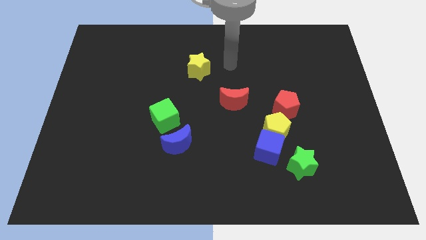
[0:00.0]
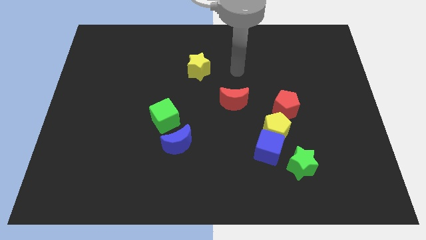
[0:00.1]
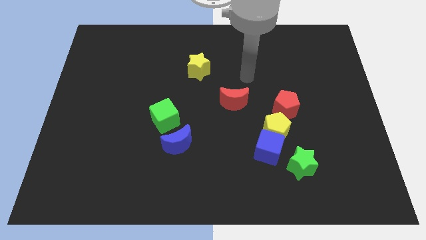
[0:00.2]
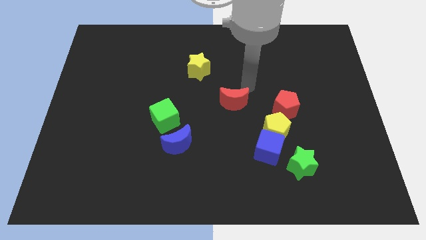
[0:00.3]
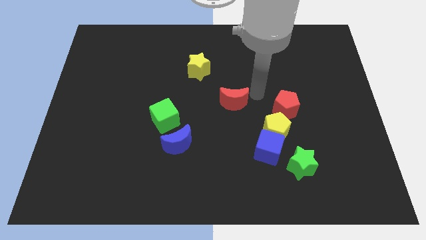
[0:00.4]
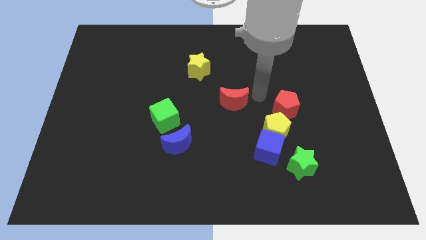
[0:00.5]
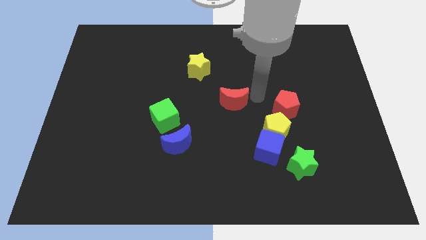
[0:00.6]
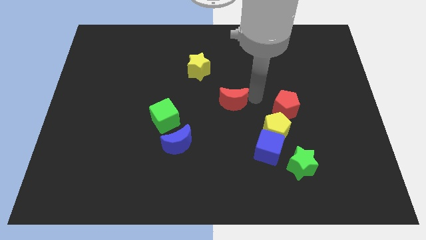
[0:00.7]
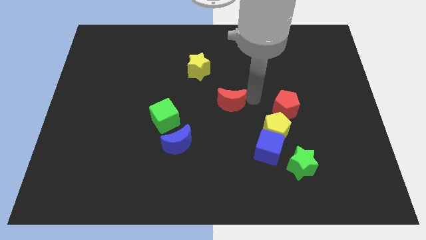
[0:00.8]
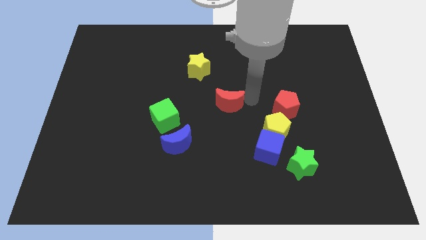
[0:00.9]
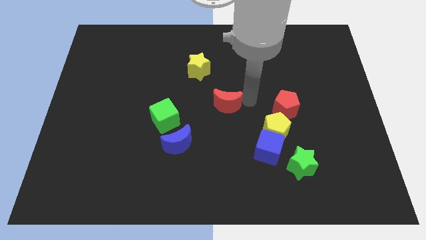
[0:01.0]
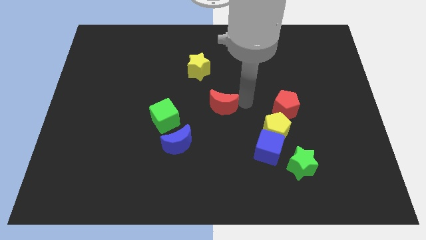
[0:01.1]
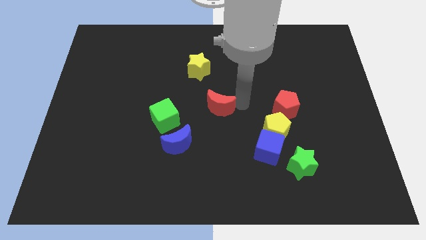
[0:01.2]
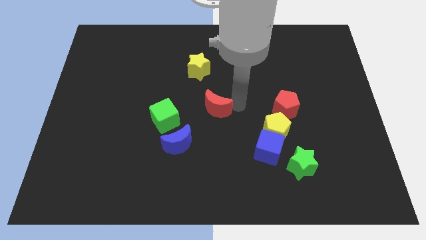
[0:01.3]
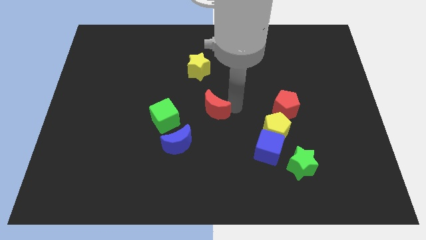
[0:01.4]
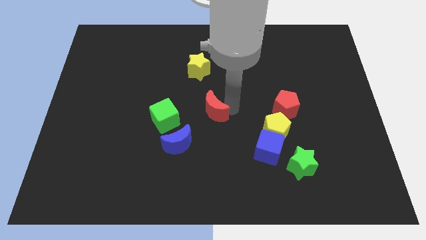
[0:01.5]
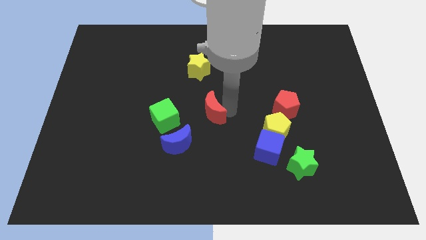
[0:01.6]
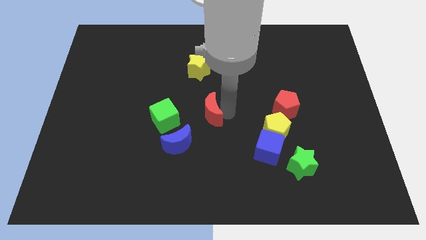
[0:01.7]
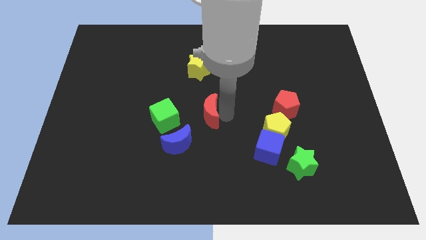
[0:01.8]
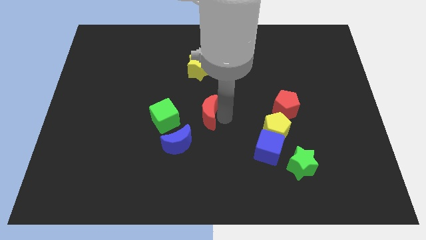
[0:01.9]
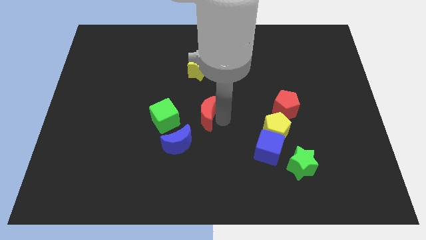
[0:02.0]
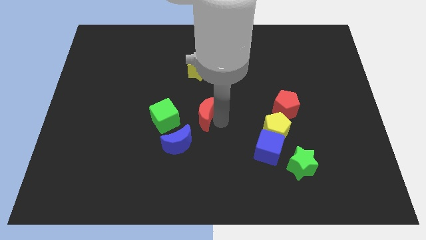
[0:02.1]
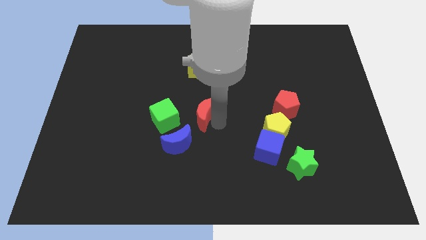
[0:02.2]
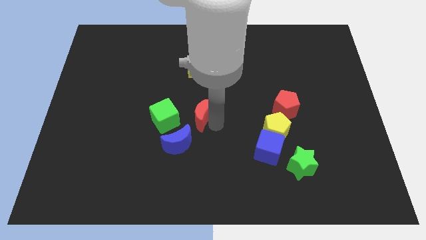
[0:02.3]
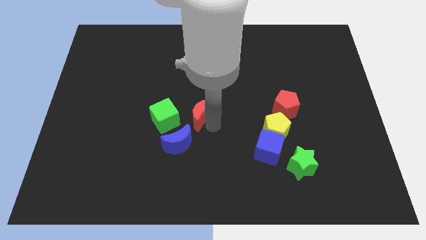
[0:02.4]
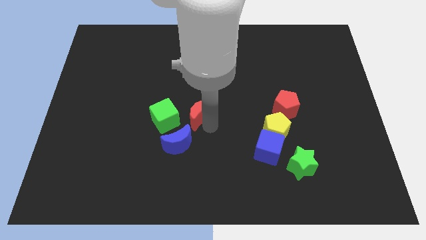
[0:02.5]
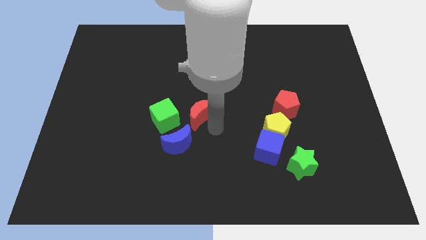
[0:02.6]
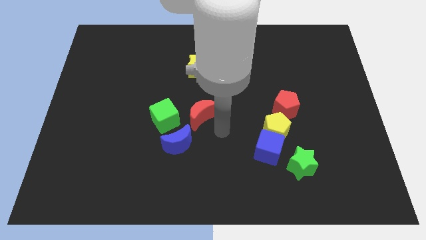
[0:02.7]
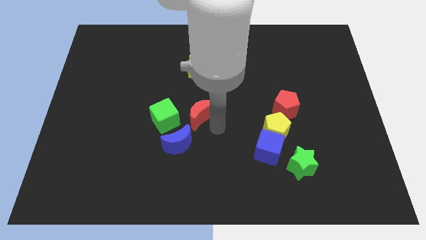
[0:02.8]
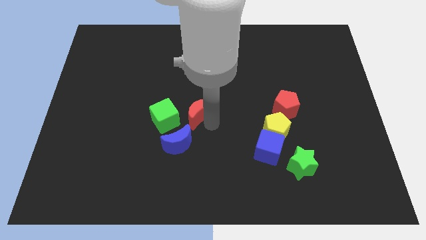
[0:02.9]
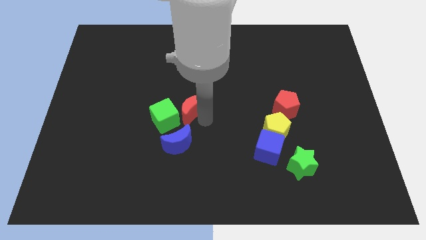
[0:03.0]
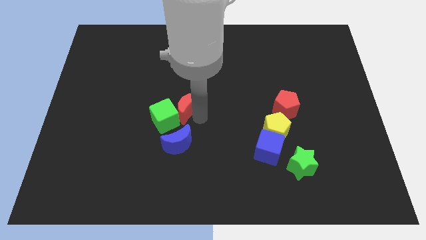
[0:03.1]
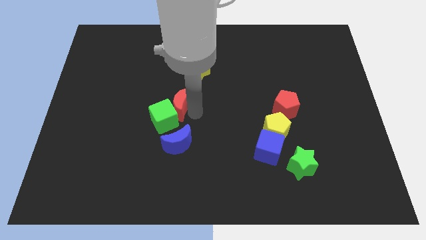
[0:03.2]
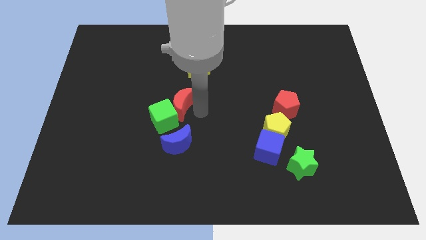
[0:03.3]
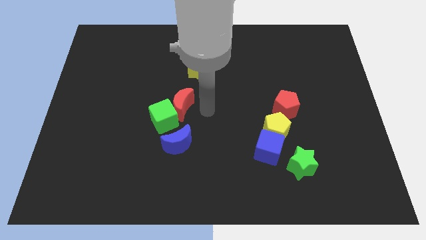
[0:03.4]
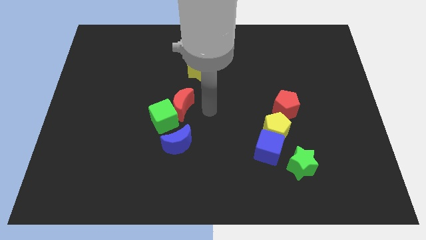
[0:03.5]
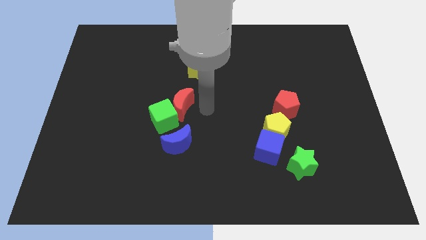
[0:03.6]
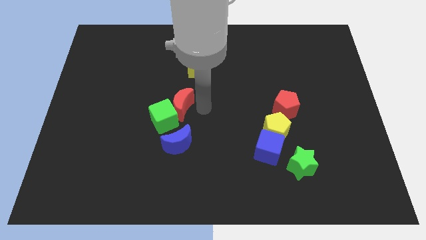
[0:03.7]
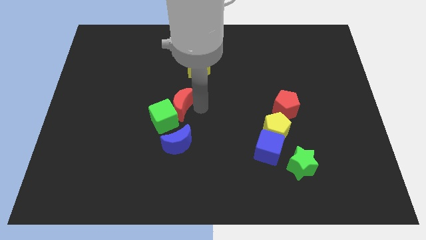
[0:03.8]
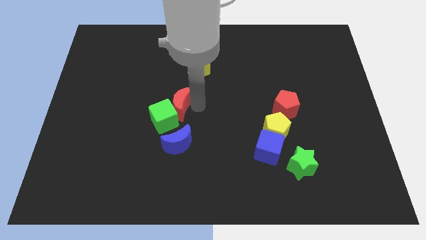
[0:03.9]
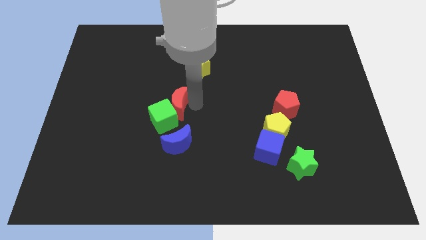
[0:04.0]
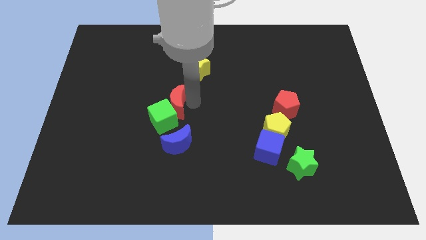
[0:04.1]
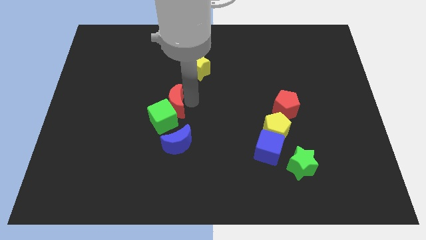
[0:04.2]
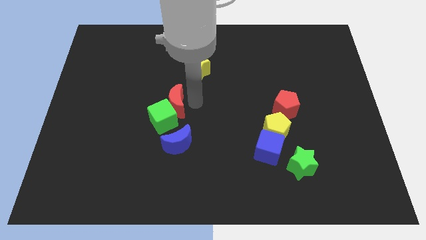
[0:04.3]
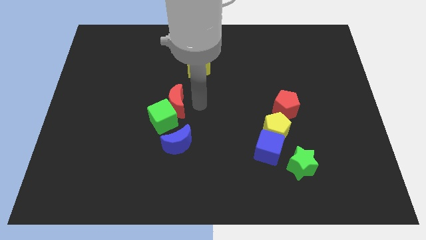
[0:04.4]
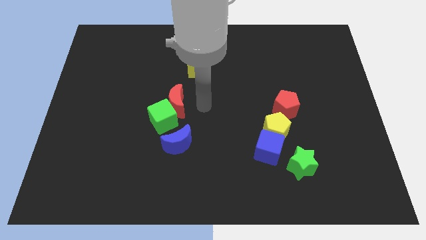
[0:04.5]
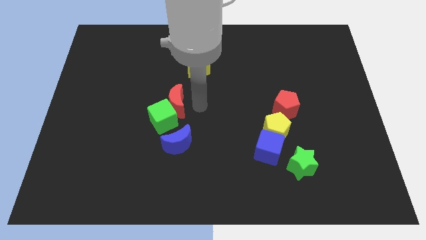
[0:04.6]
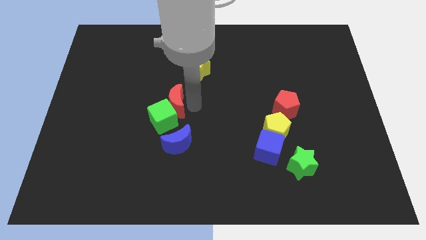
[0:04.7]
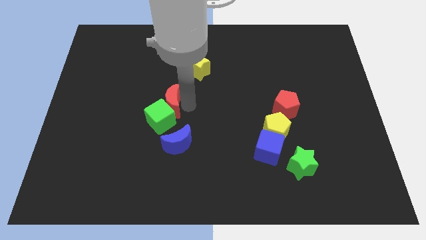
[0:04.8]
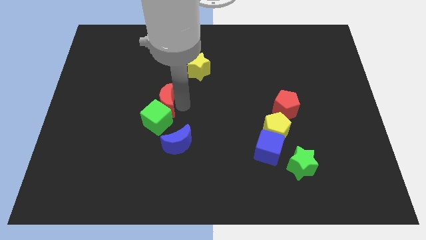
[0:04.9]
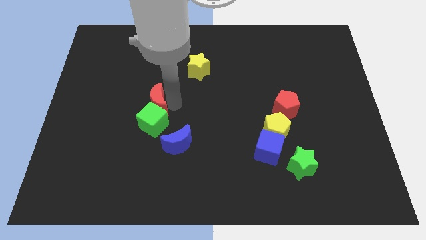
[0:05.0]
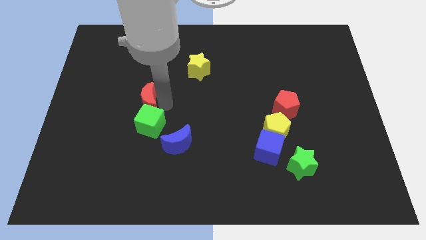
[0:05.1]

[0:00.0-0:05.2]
move the red moon to the left

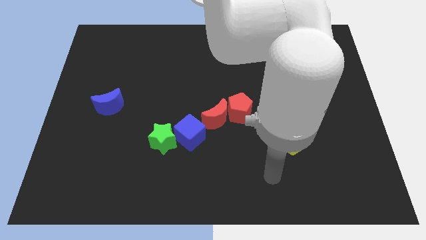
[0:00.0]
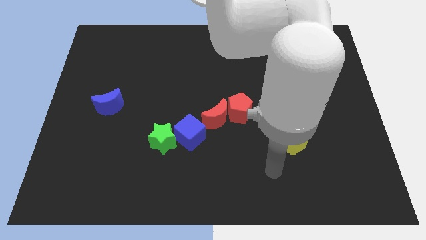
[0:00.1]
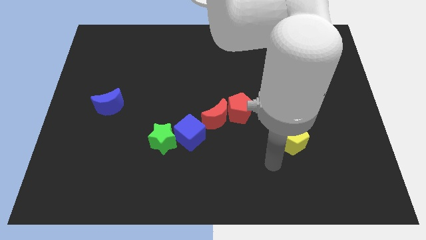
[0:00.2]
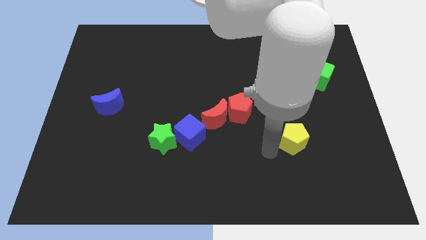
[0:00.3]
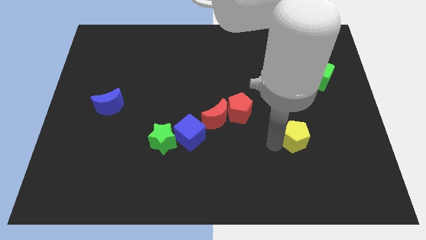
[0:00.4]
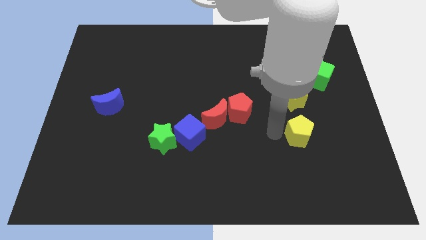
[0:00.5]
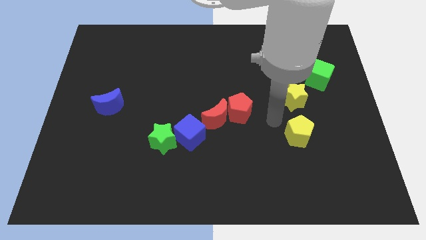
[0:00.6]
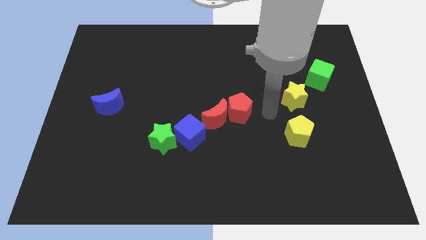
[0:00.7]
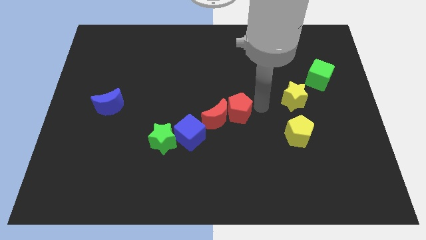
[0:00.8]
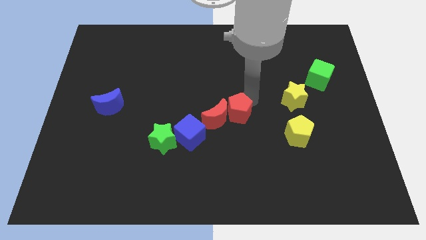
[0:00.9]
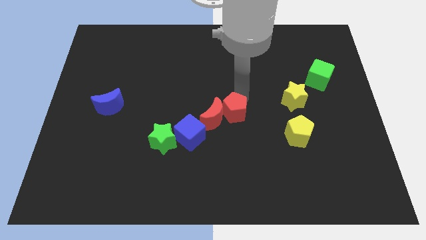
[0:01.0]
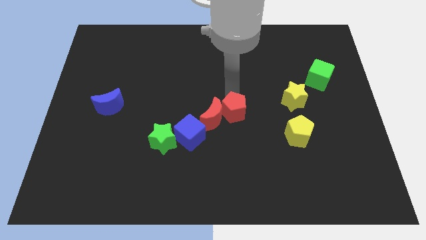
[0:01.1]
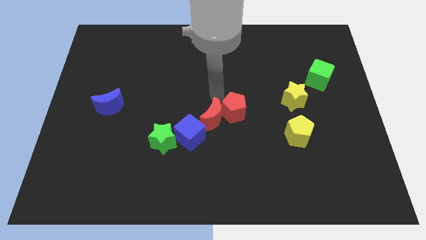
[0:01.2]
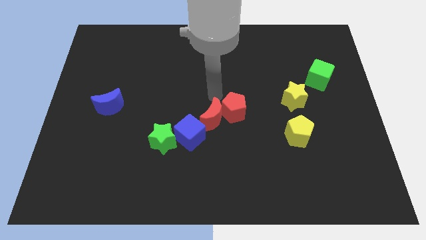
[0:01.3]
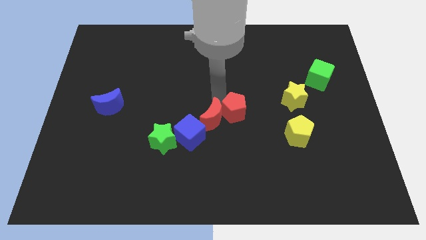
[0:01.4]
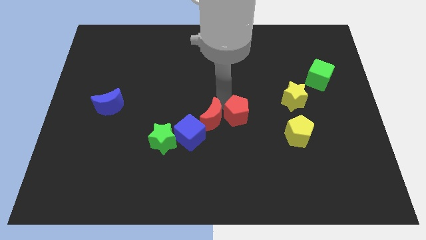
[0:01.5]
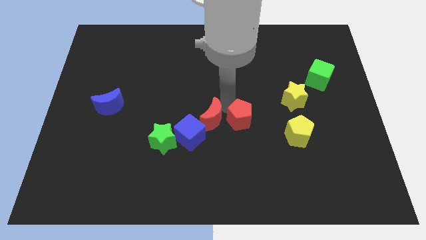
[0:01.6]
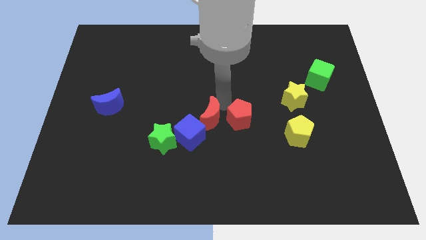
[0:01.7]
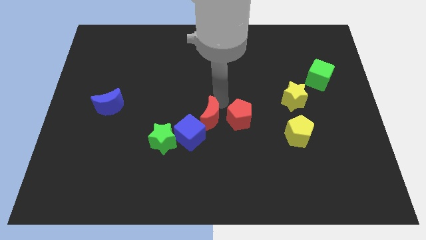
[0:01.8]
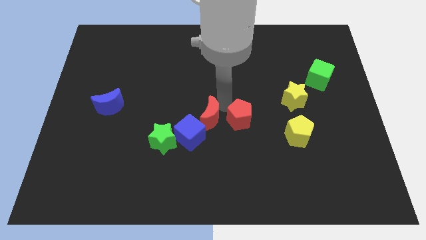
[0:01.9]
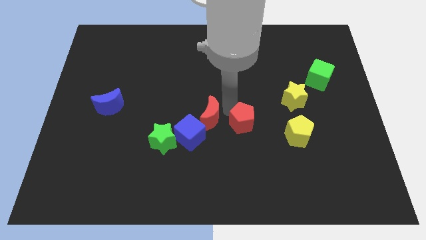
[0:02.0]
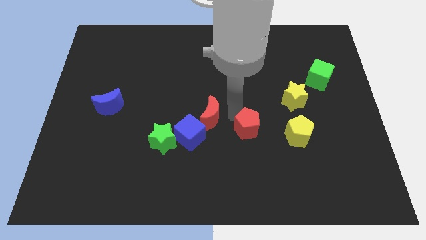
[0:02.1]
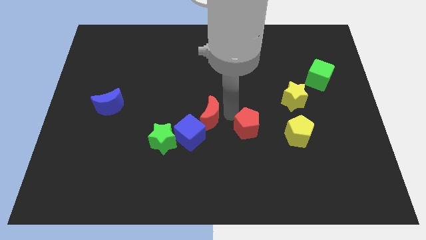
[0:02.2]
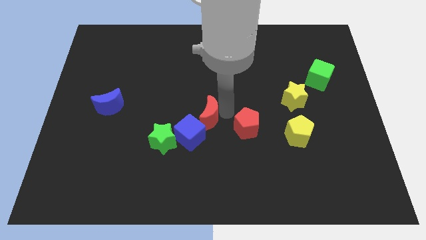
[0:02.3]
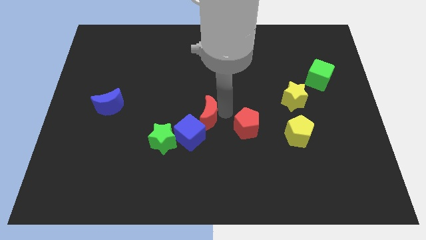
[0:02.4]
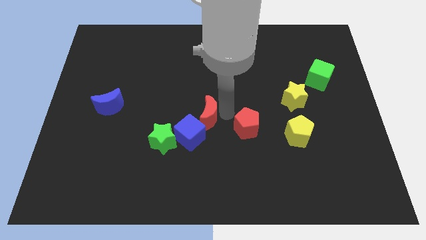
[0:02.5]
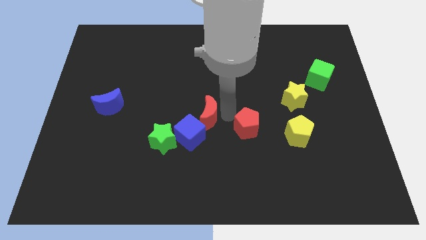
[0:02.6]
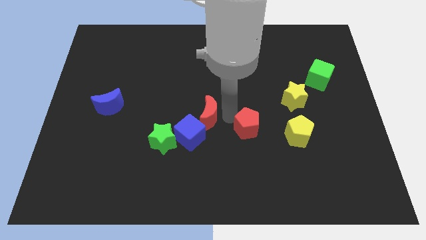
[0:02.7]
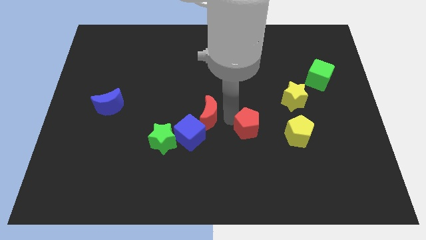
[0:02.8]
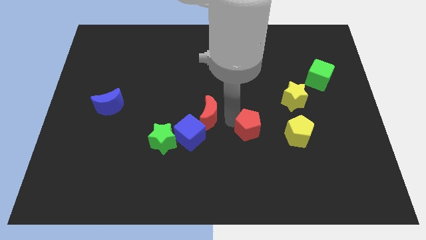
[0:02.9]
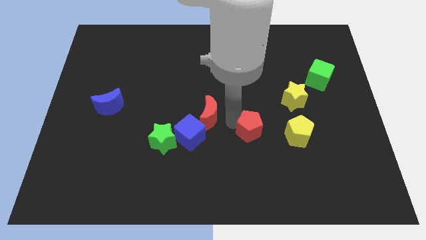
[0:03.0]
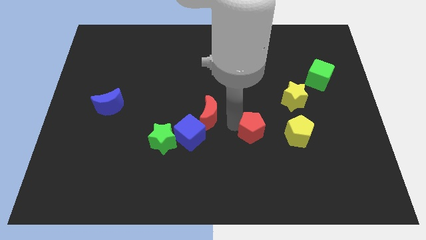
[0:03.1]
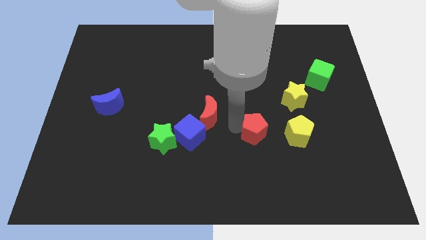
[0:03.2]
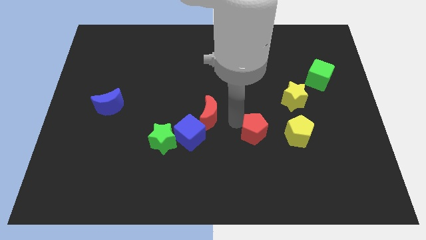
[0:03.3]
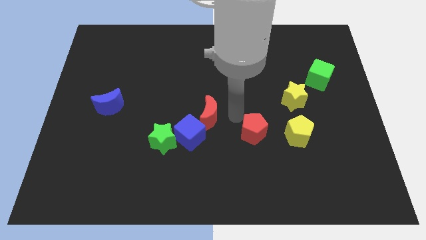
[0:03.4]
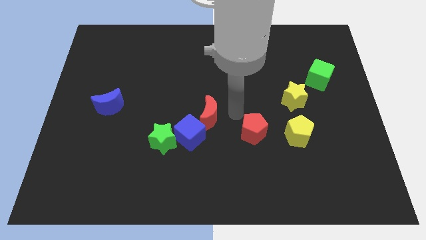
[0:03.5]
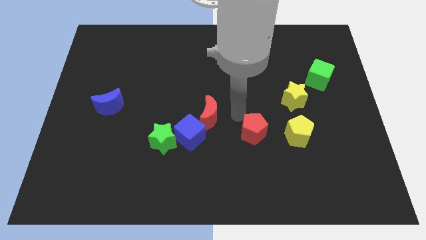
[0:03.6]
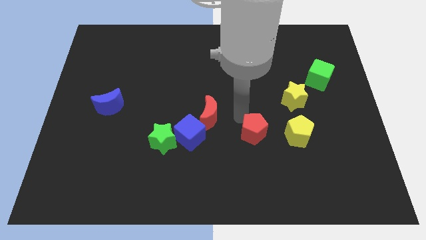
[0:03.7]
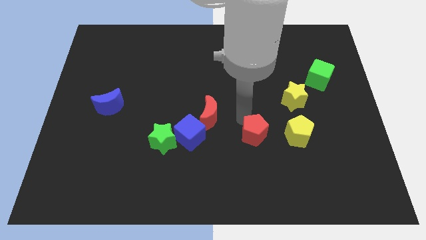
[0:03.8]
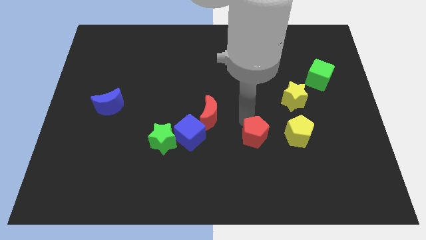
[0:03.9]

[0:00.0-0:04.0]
slightly move the red pentagon downwards and then to the right
